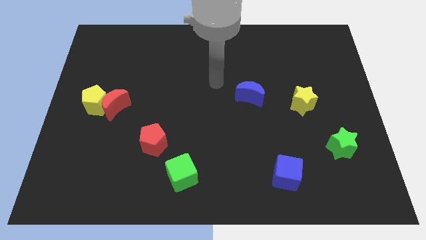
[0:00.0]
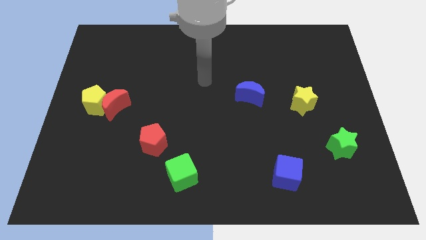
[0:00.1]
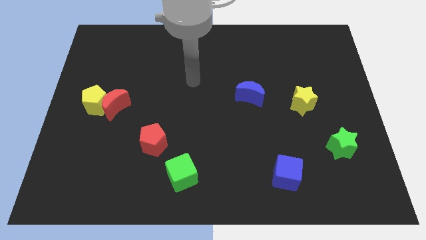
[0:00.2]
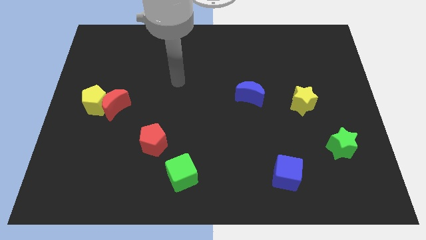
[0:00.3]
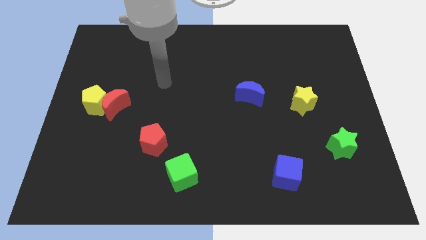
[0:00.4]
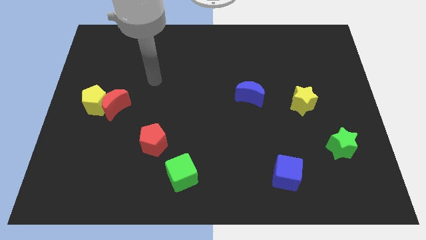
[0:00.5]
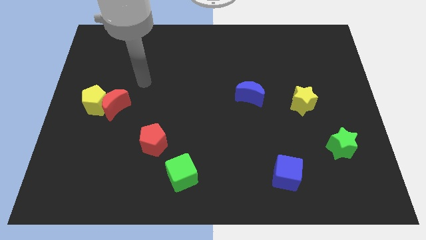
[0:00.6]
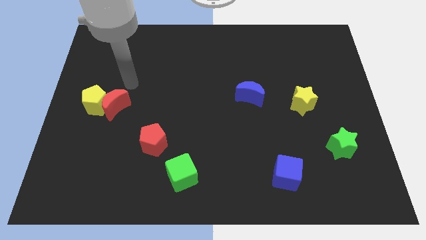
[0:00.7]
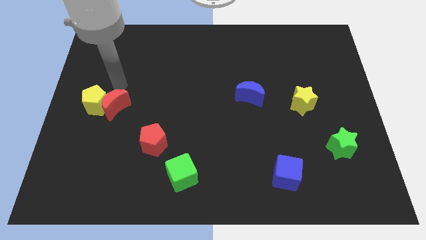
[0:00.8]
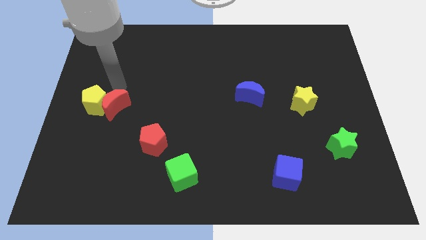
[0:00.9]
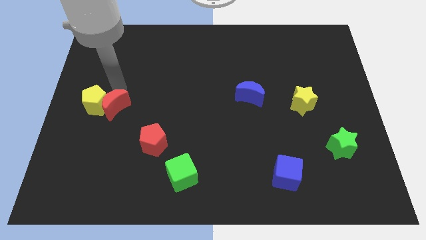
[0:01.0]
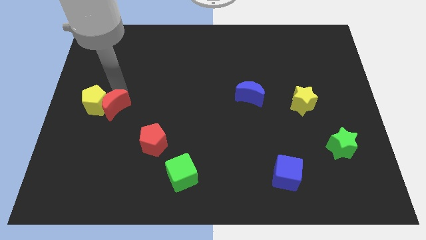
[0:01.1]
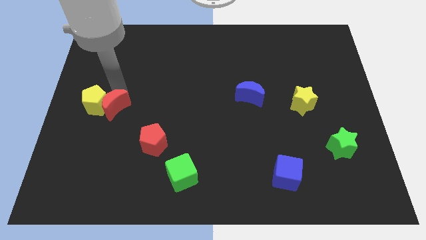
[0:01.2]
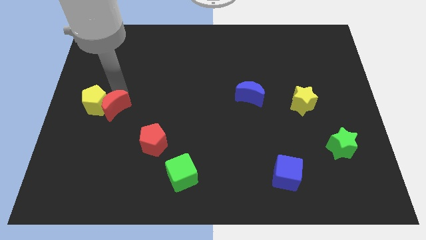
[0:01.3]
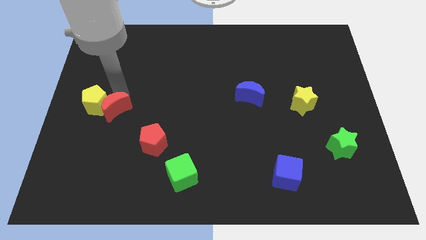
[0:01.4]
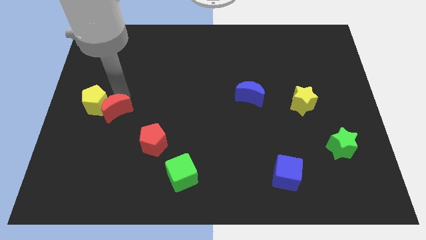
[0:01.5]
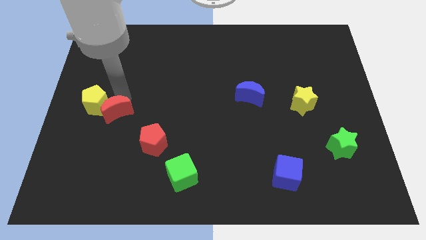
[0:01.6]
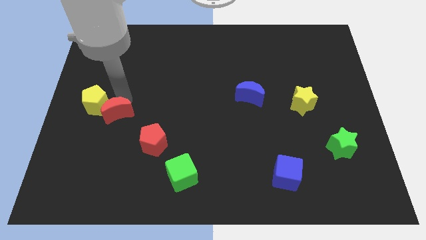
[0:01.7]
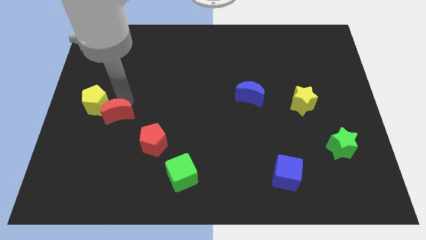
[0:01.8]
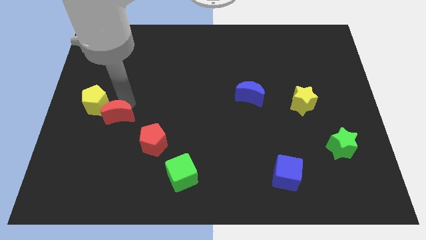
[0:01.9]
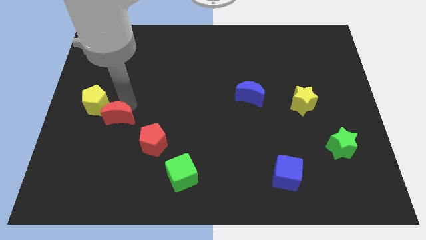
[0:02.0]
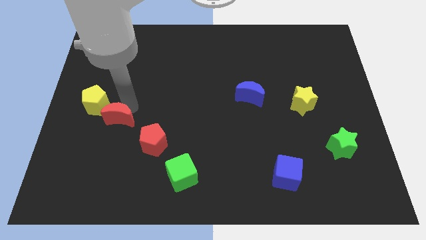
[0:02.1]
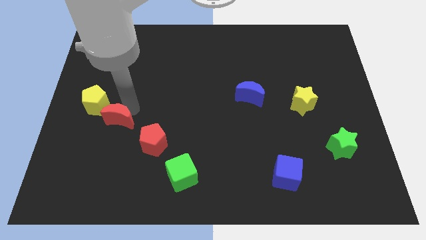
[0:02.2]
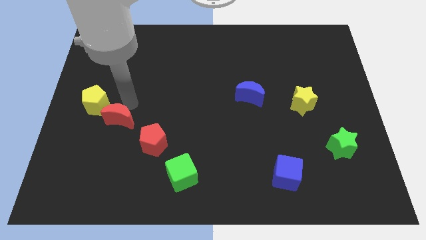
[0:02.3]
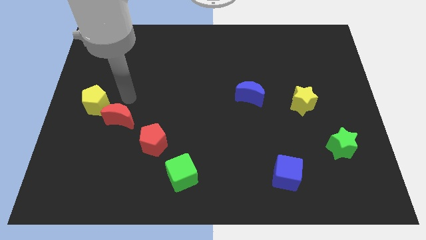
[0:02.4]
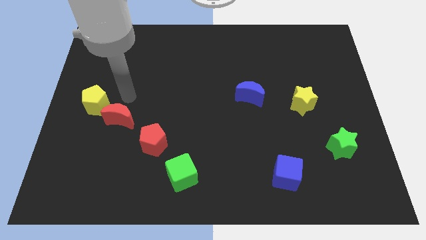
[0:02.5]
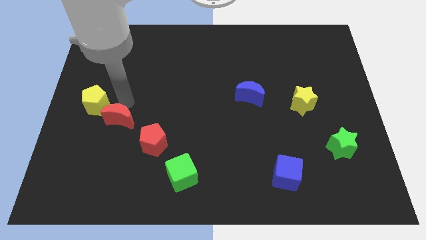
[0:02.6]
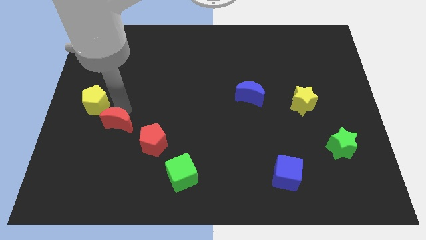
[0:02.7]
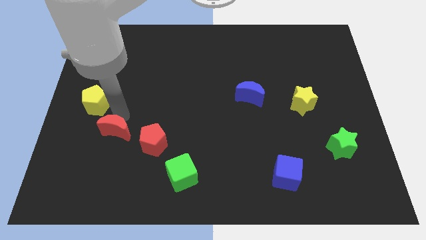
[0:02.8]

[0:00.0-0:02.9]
push the red moon downwards somewhat

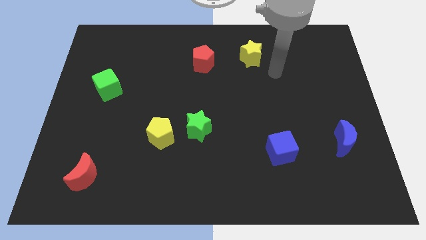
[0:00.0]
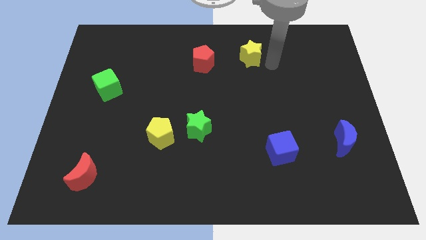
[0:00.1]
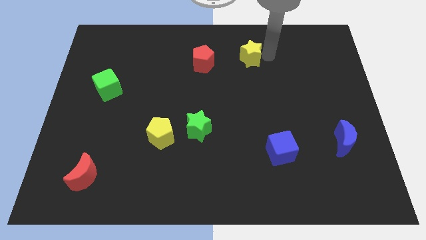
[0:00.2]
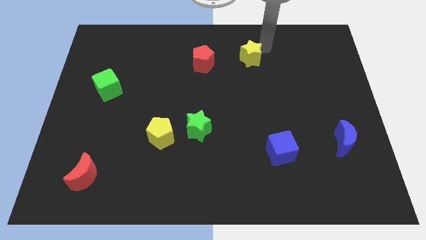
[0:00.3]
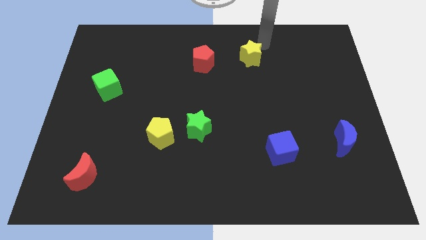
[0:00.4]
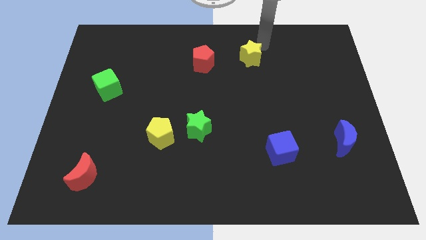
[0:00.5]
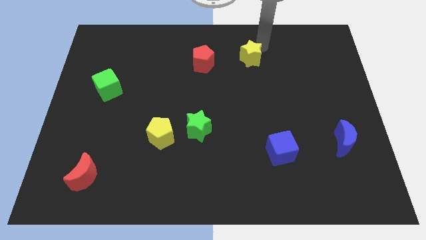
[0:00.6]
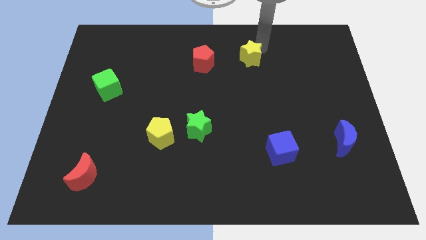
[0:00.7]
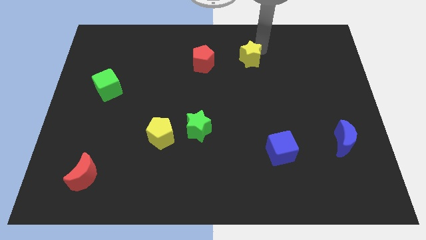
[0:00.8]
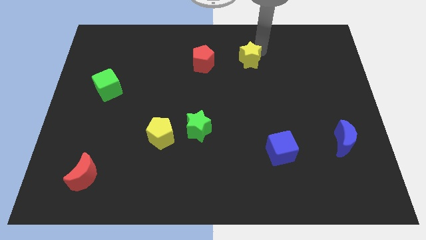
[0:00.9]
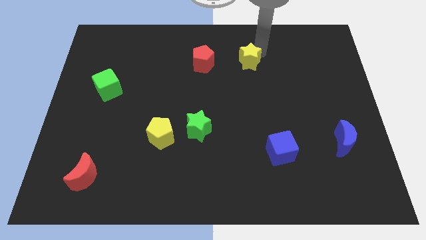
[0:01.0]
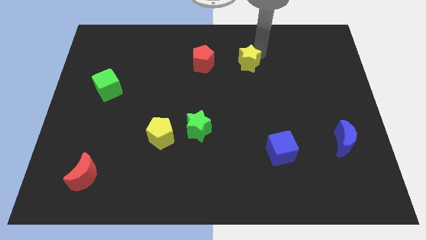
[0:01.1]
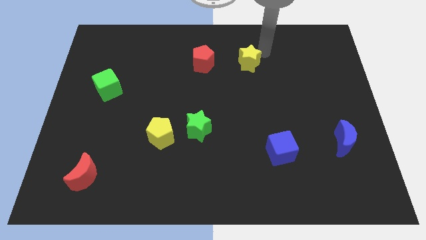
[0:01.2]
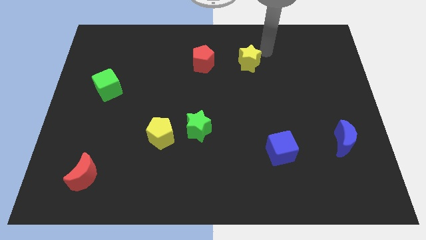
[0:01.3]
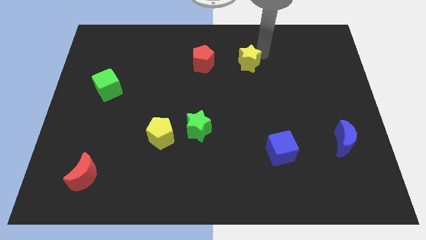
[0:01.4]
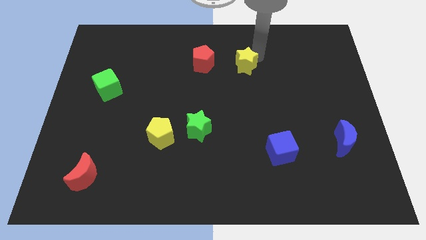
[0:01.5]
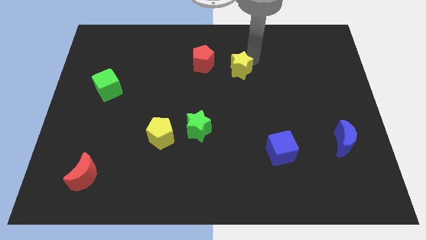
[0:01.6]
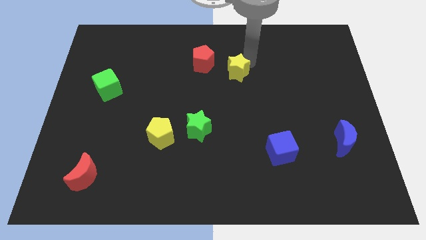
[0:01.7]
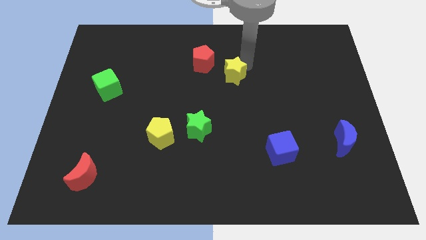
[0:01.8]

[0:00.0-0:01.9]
push the yellow star a little bit down and to the left

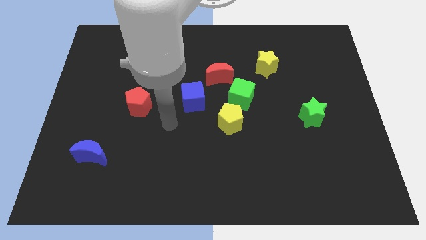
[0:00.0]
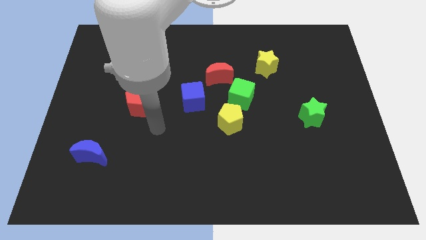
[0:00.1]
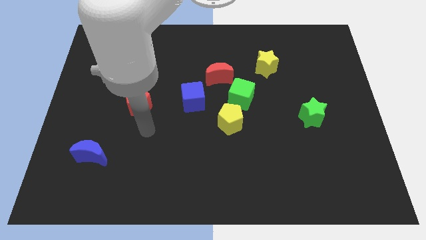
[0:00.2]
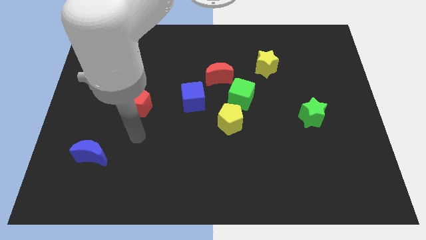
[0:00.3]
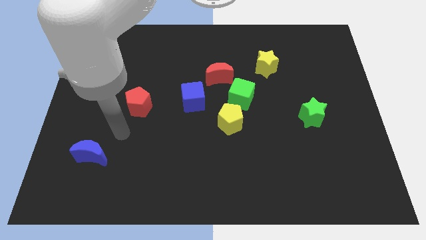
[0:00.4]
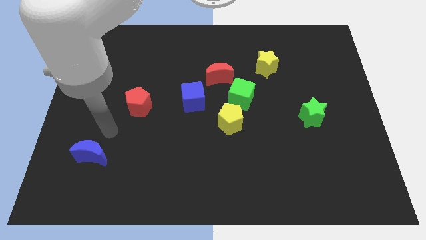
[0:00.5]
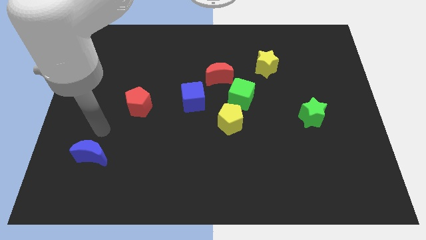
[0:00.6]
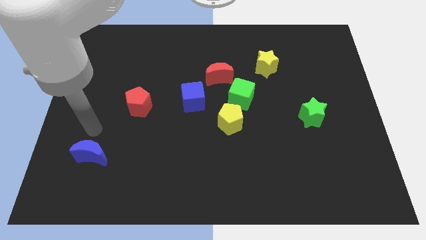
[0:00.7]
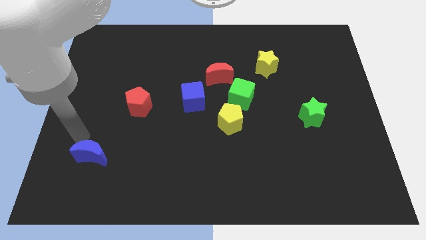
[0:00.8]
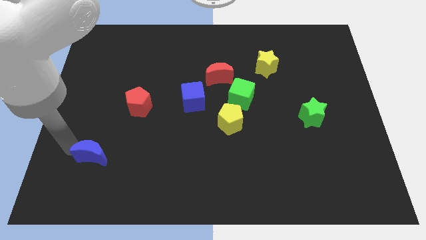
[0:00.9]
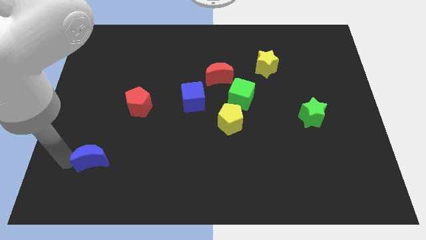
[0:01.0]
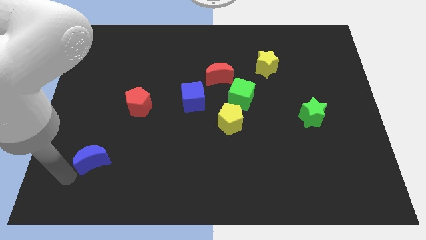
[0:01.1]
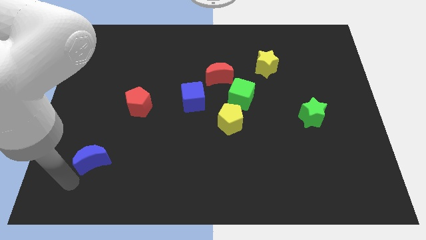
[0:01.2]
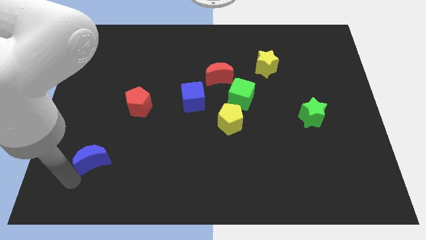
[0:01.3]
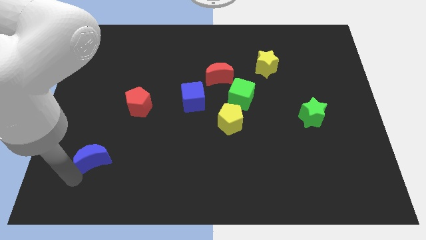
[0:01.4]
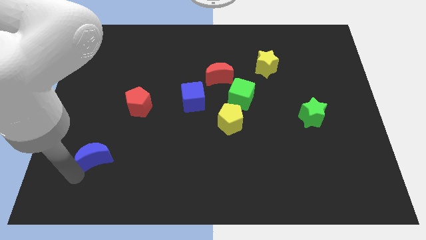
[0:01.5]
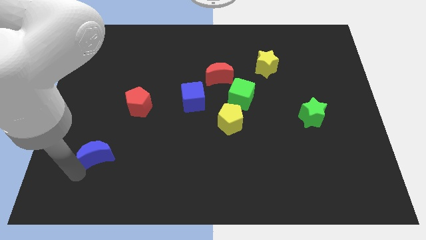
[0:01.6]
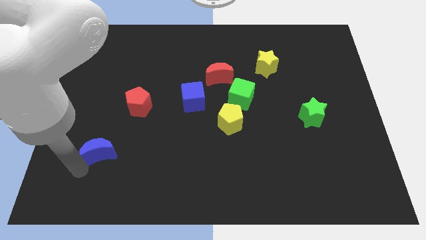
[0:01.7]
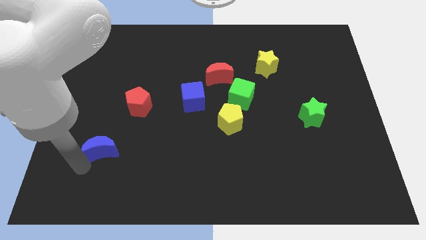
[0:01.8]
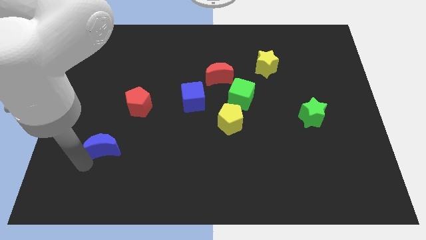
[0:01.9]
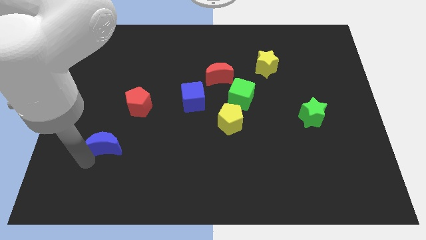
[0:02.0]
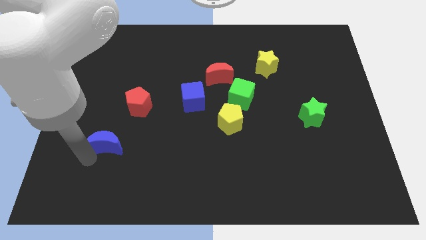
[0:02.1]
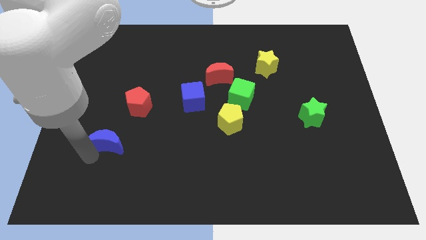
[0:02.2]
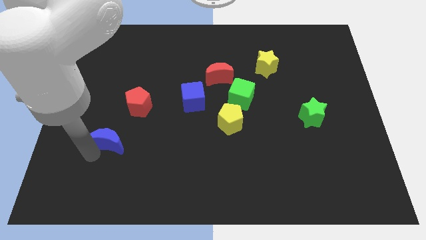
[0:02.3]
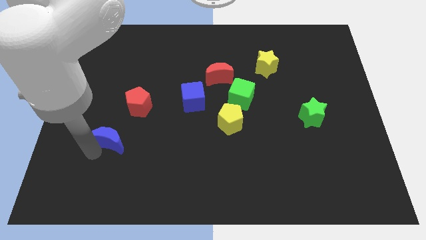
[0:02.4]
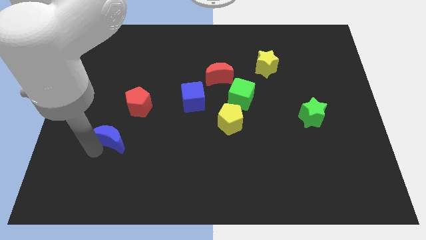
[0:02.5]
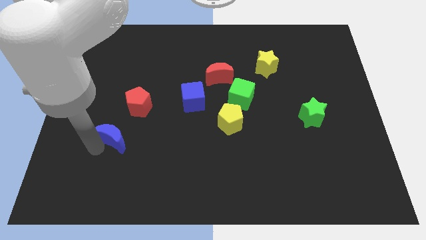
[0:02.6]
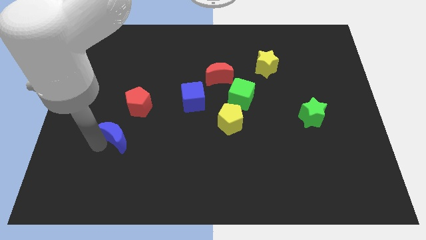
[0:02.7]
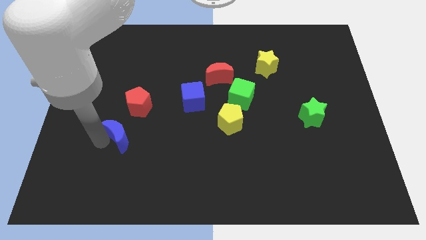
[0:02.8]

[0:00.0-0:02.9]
push the blue moon diagonally upwards and to the right a little bit

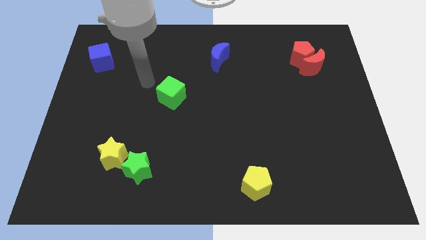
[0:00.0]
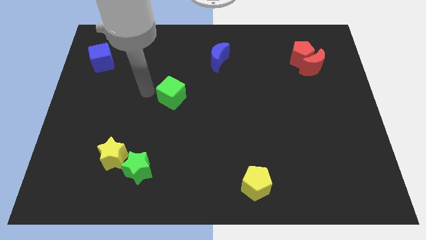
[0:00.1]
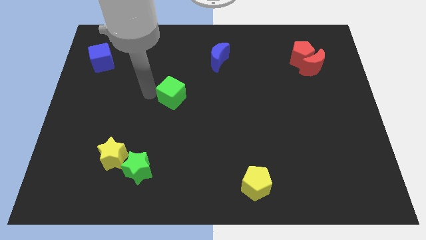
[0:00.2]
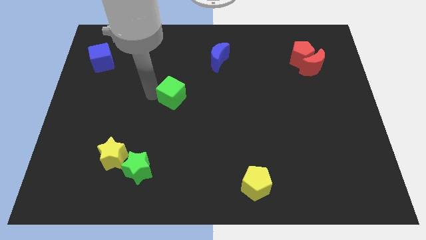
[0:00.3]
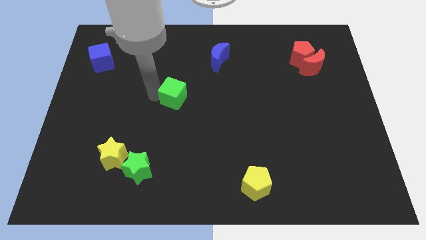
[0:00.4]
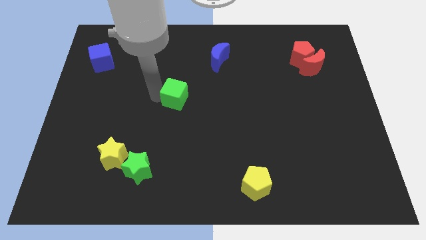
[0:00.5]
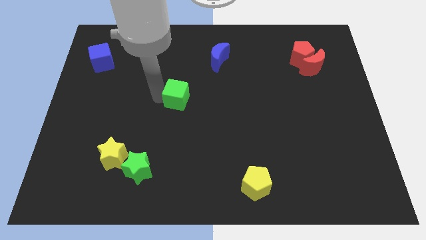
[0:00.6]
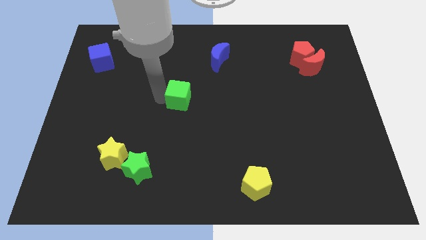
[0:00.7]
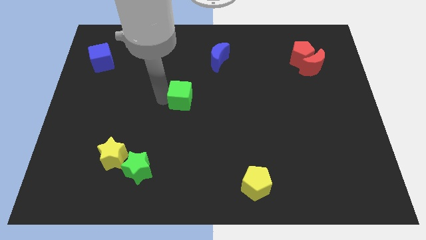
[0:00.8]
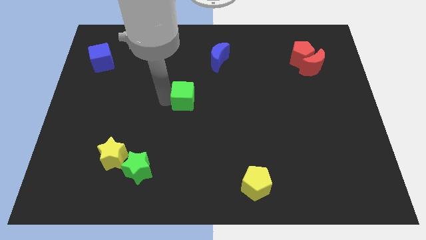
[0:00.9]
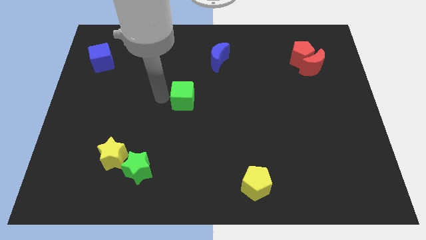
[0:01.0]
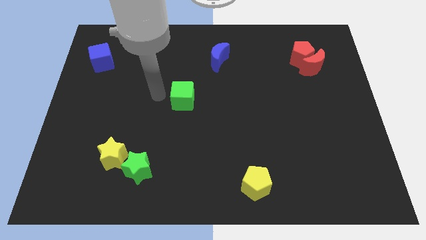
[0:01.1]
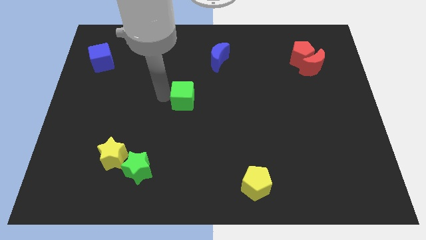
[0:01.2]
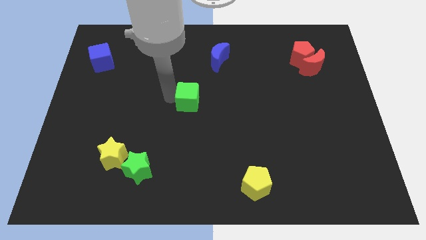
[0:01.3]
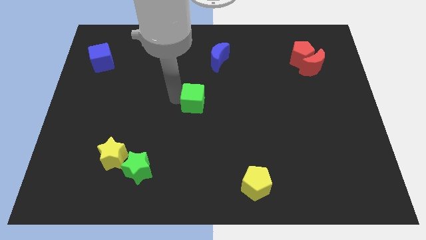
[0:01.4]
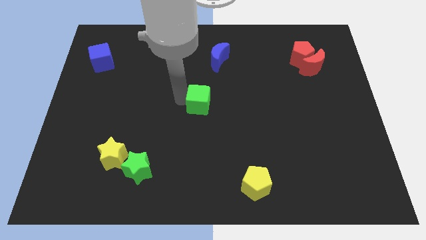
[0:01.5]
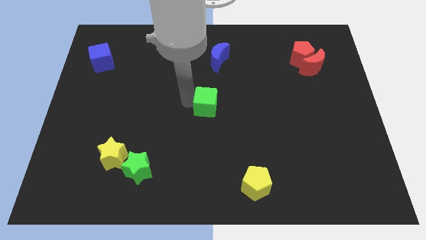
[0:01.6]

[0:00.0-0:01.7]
move the green cube right somewhat
